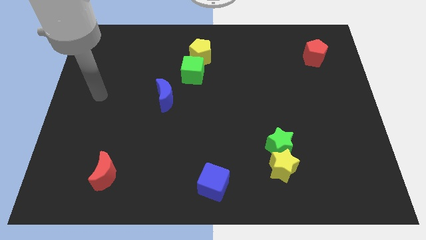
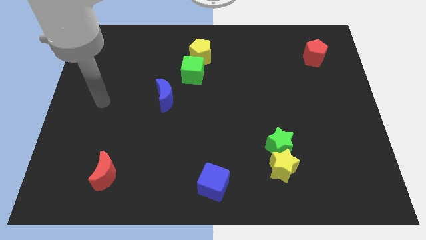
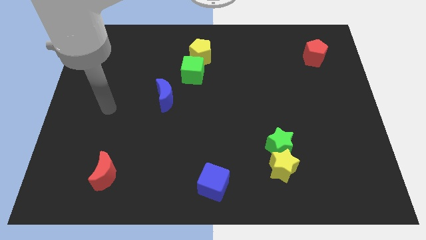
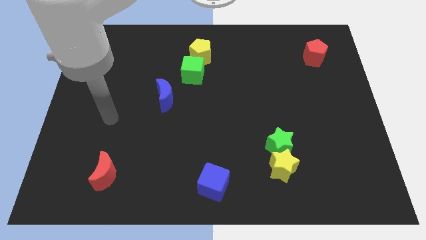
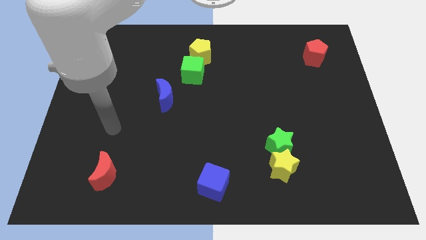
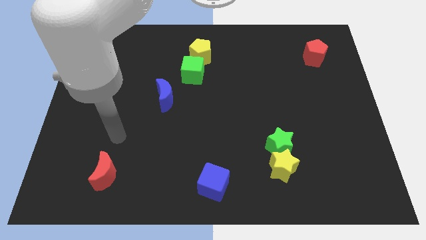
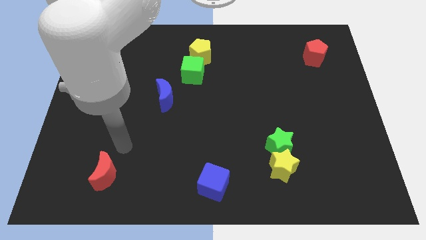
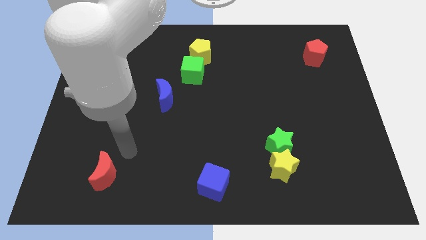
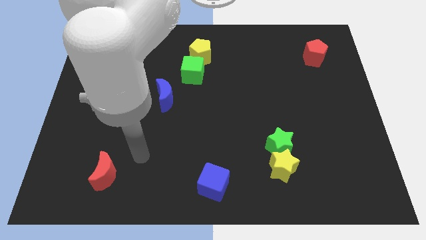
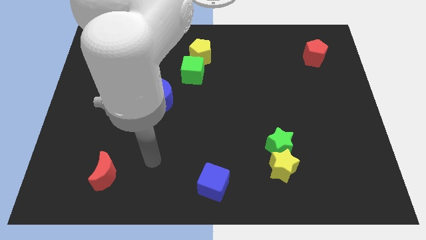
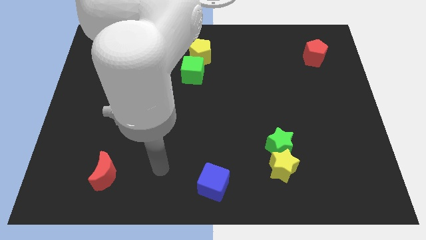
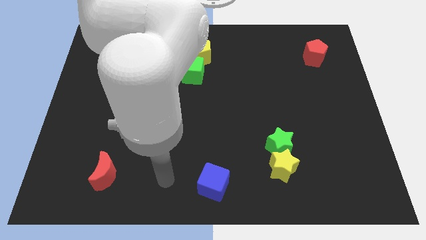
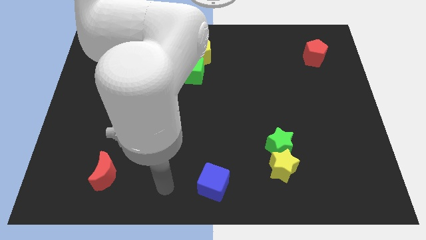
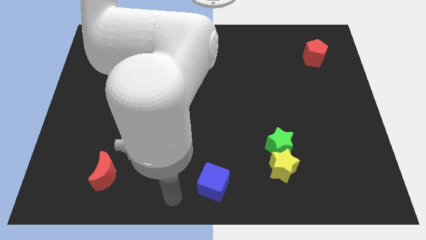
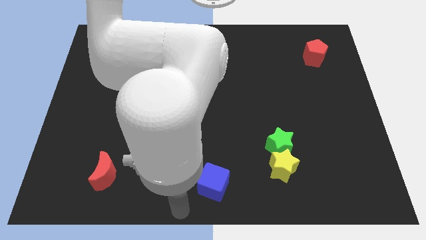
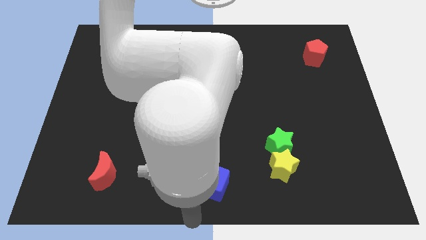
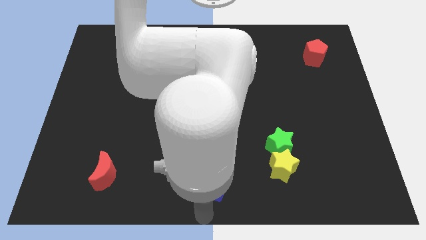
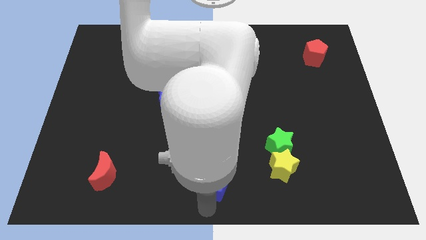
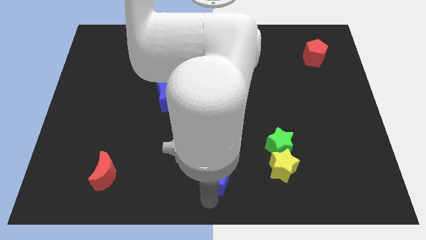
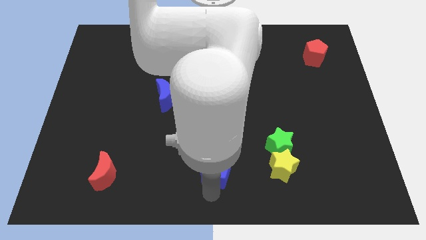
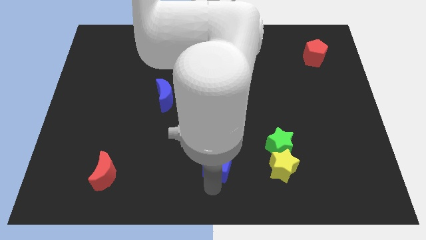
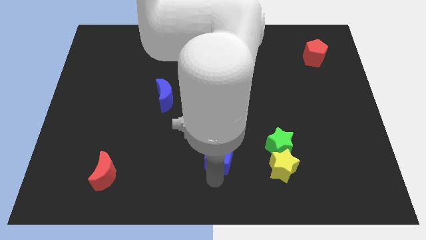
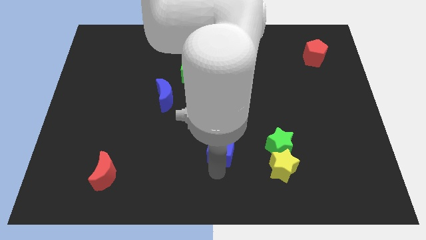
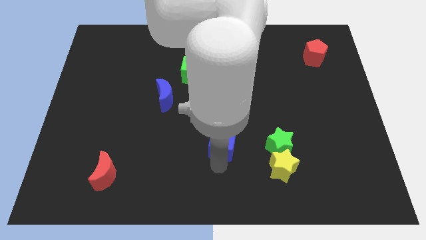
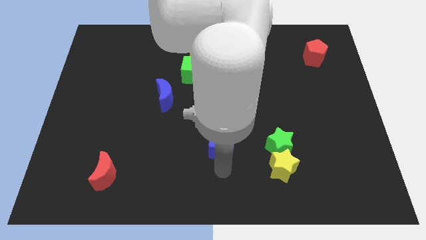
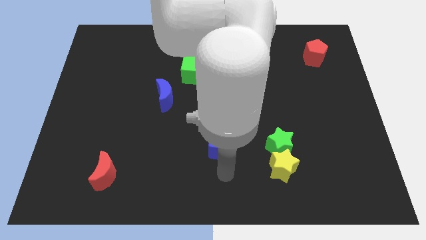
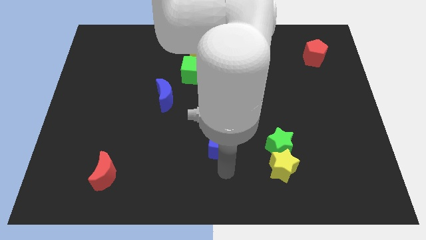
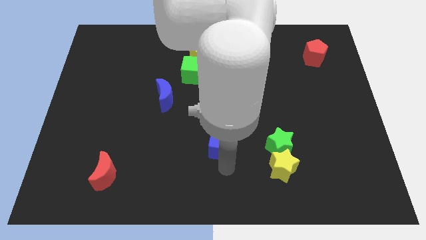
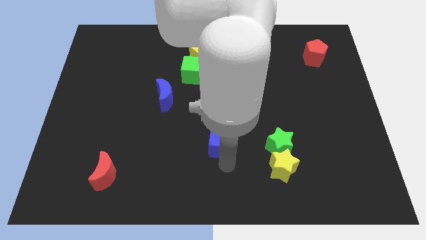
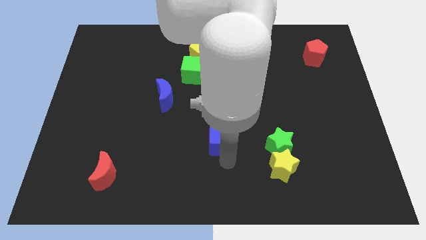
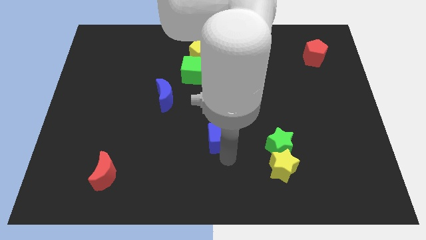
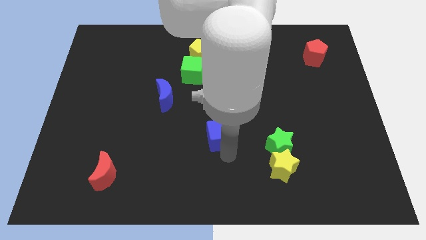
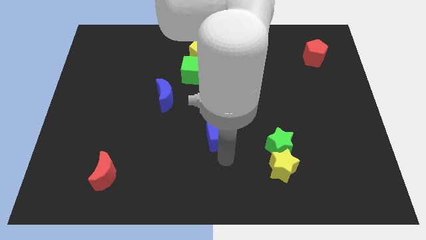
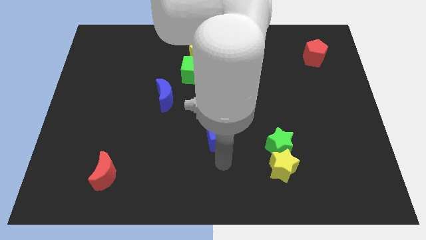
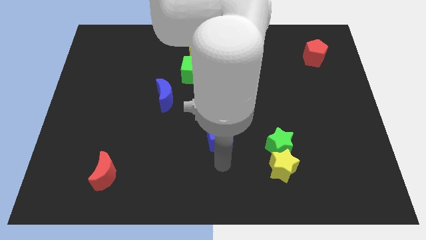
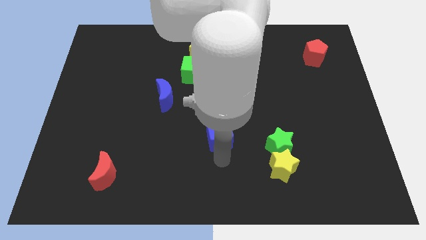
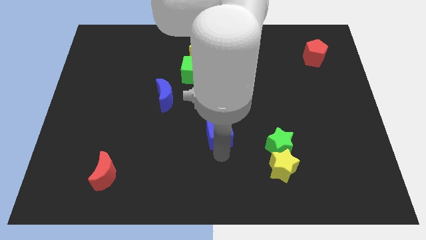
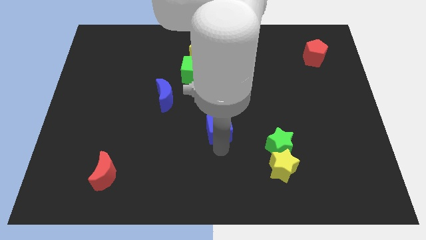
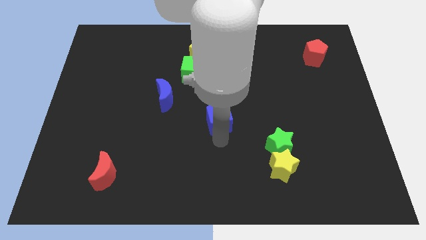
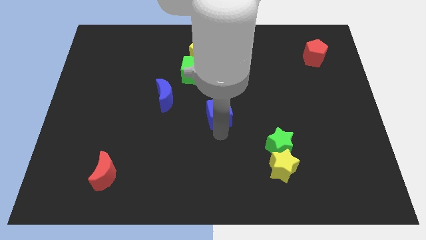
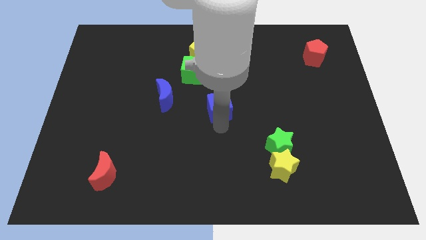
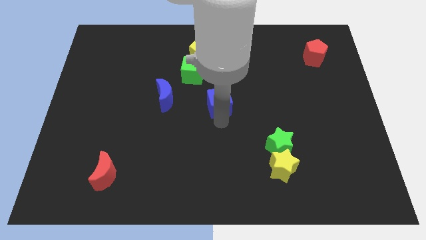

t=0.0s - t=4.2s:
slide the blue cube upwards

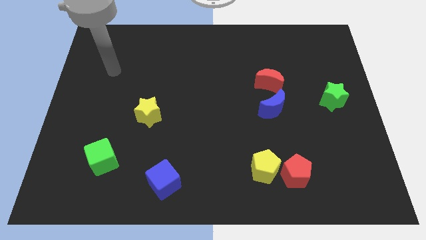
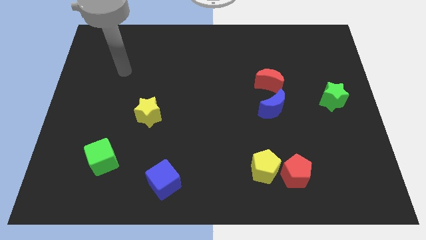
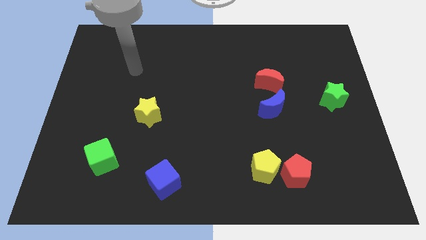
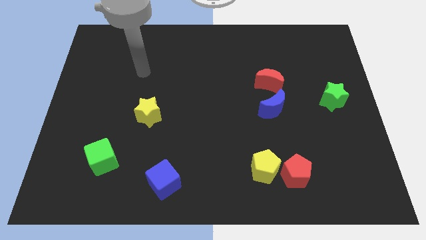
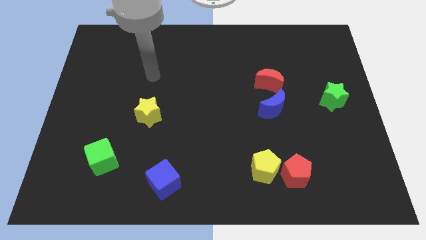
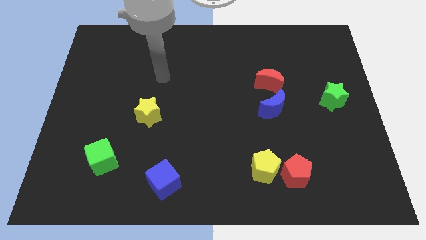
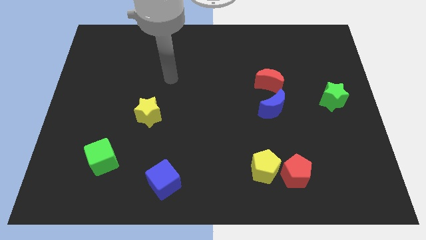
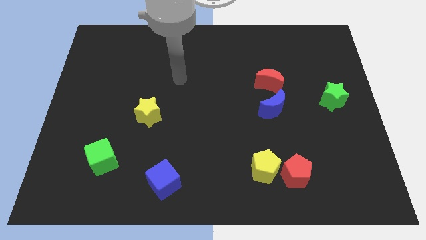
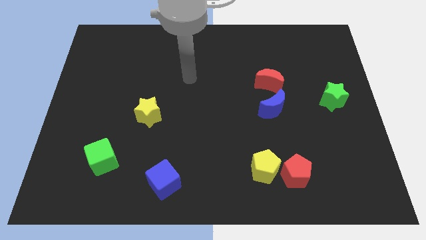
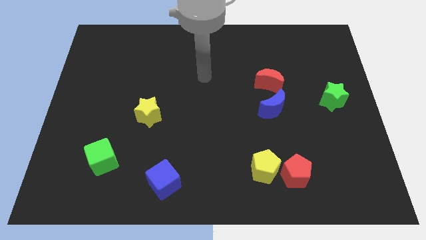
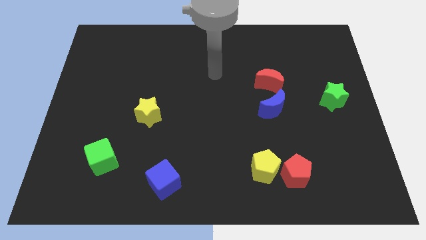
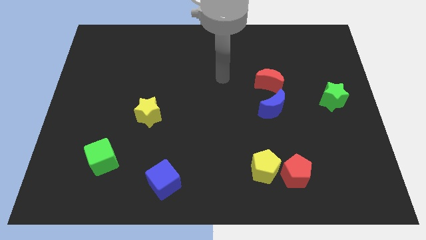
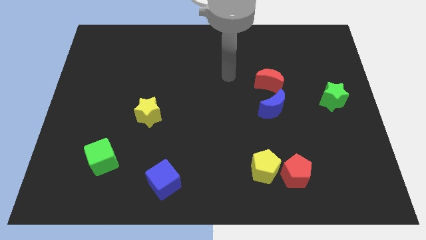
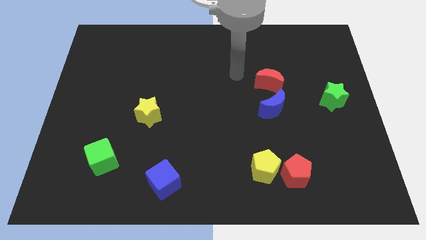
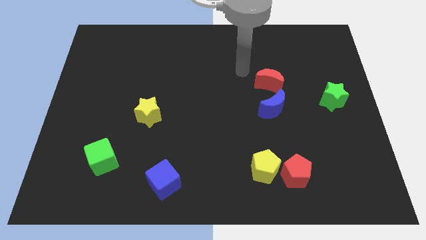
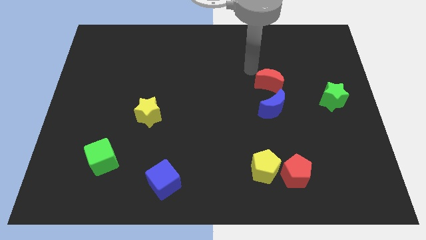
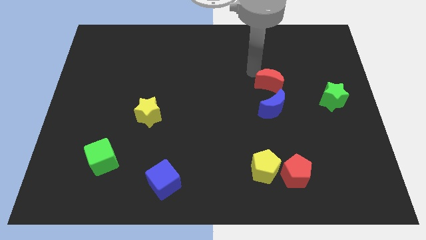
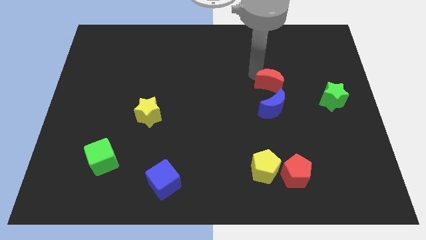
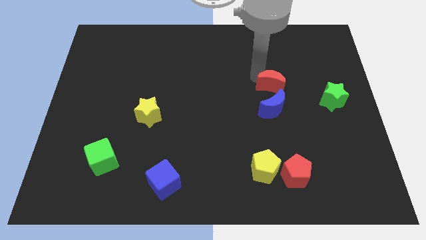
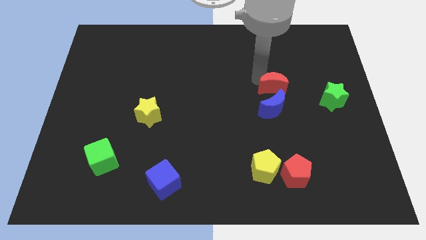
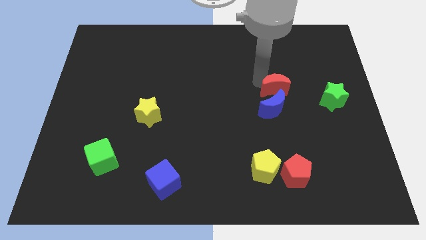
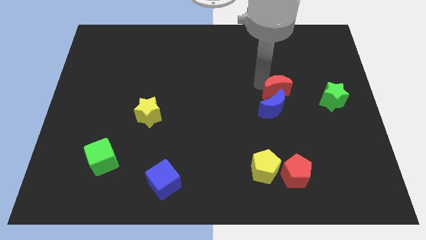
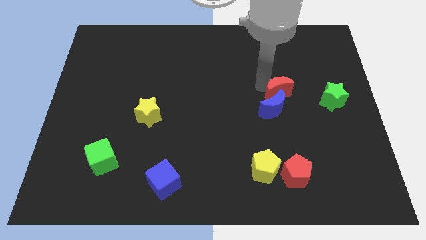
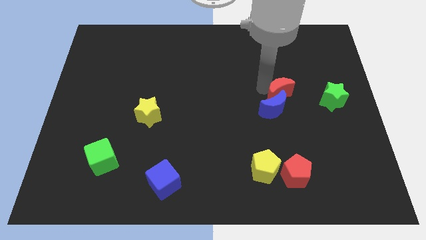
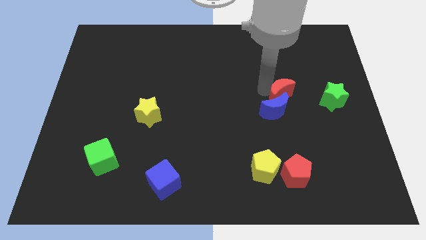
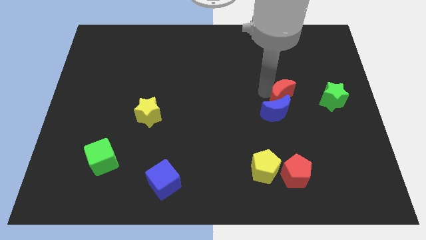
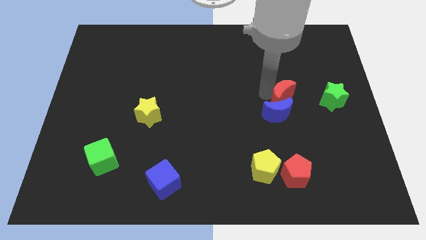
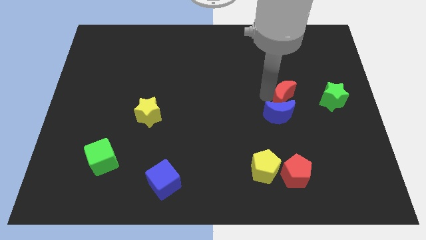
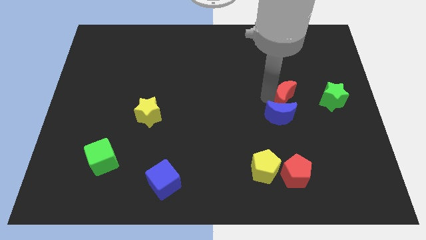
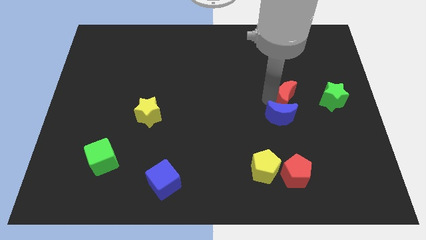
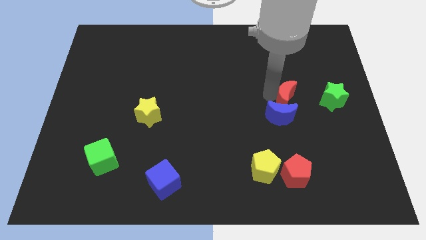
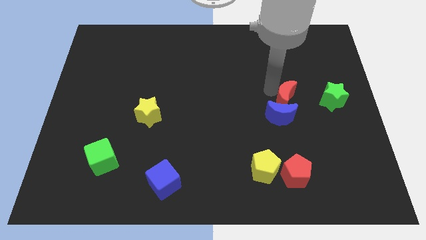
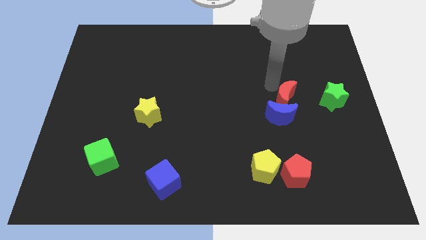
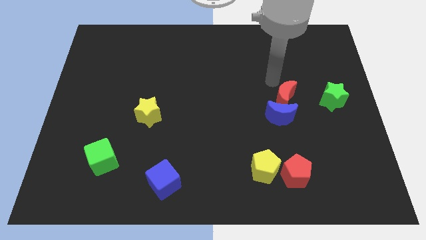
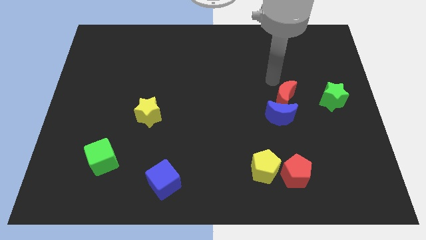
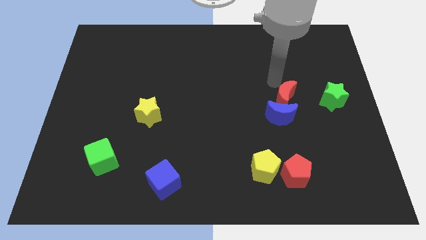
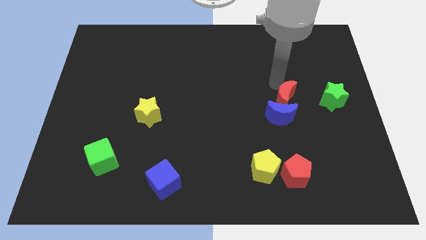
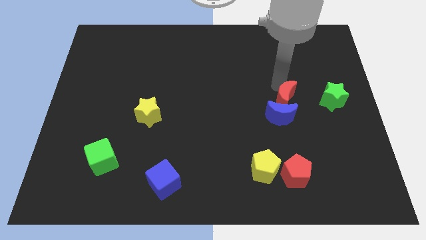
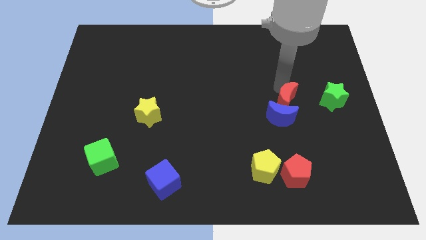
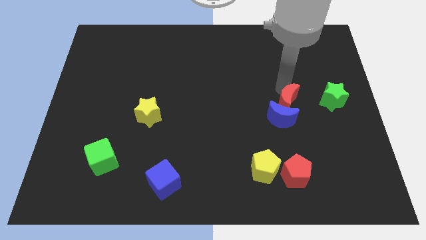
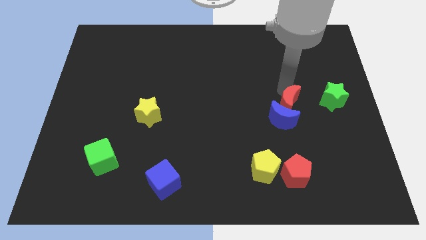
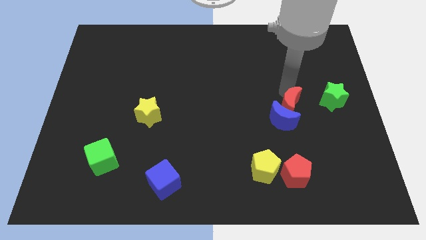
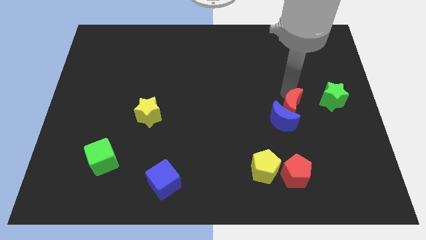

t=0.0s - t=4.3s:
slightly slide the red moon down
